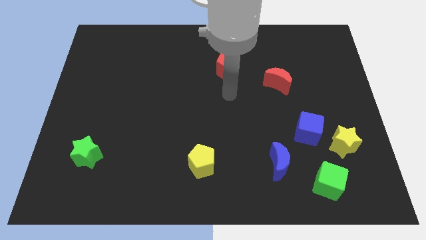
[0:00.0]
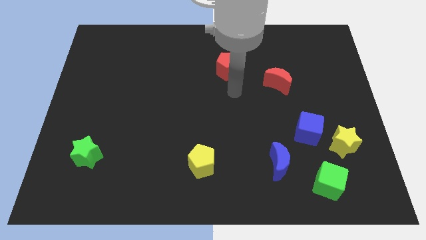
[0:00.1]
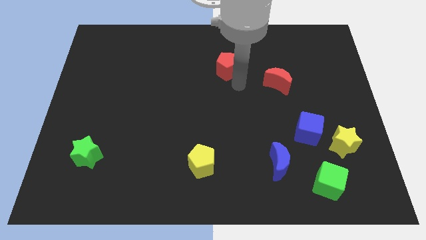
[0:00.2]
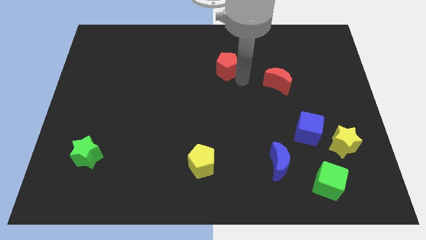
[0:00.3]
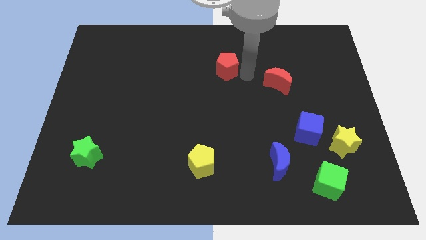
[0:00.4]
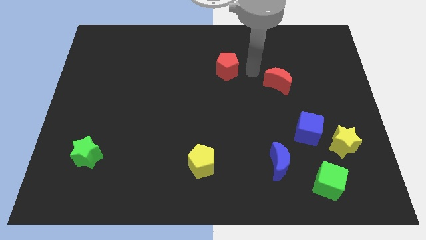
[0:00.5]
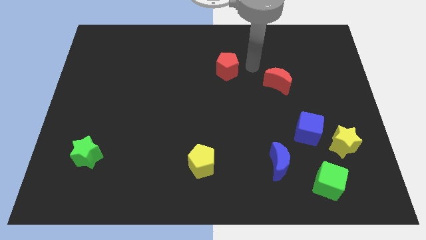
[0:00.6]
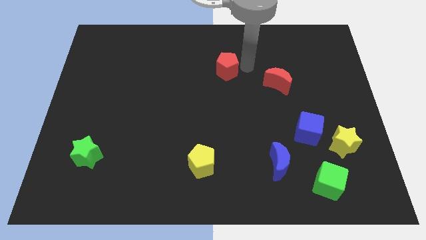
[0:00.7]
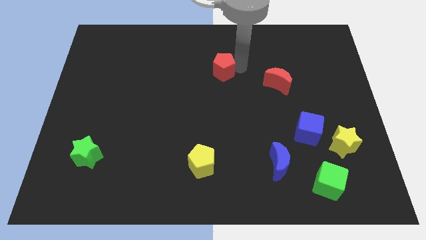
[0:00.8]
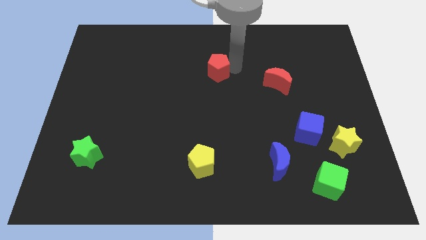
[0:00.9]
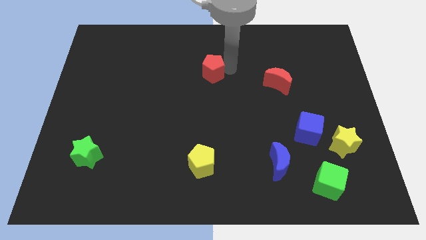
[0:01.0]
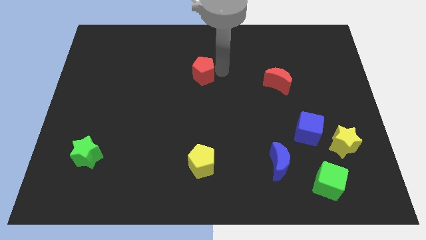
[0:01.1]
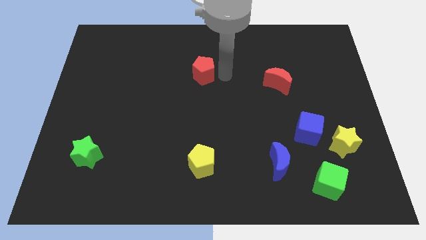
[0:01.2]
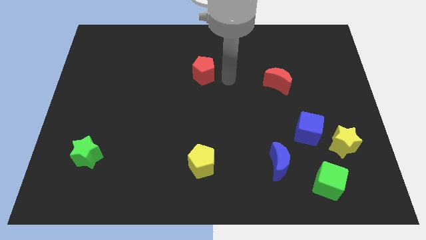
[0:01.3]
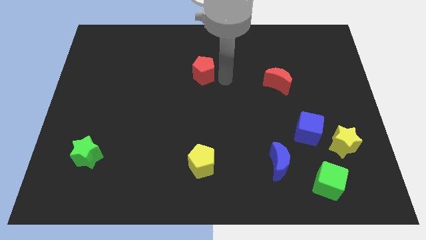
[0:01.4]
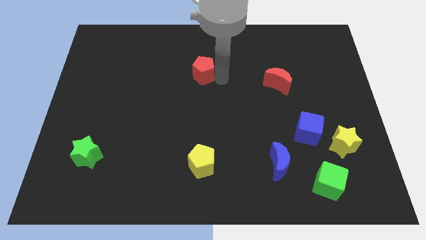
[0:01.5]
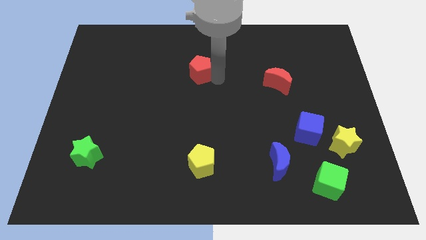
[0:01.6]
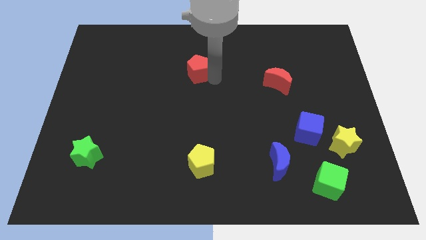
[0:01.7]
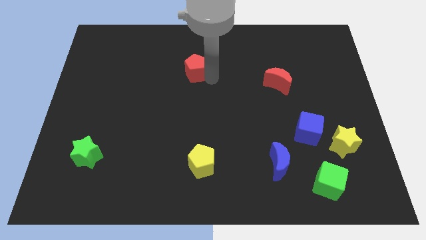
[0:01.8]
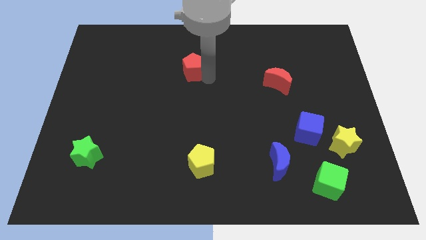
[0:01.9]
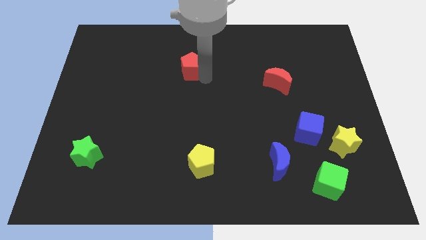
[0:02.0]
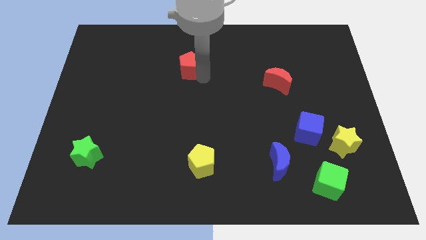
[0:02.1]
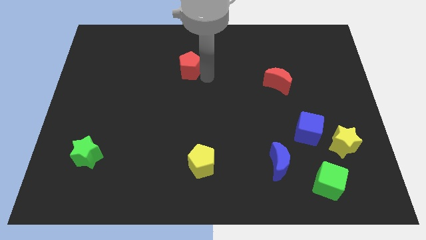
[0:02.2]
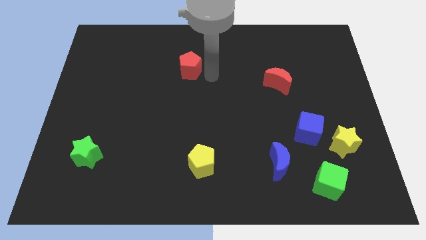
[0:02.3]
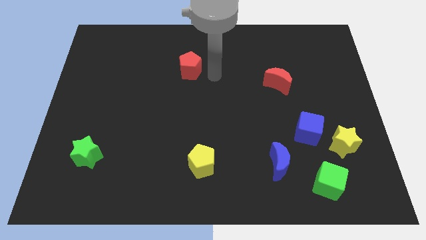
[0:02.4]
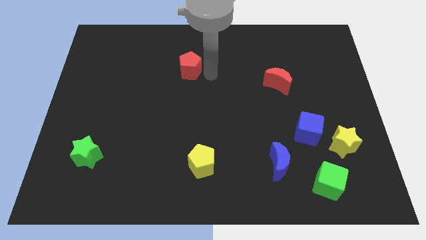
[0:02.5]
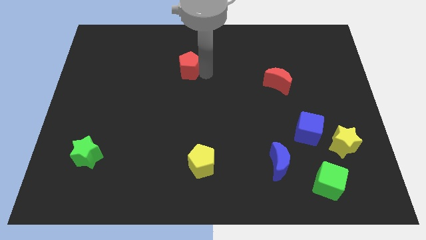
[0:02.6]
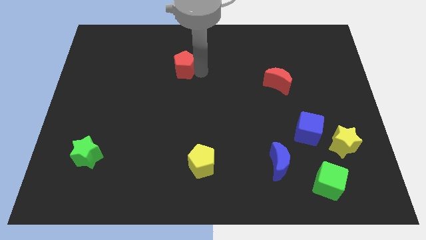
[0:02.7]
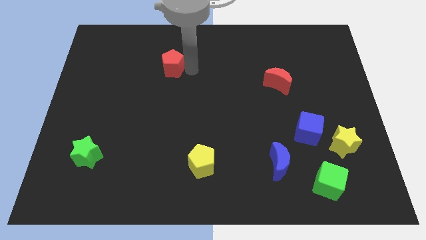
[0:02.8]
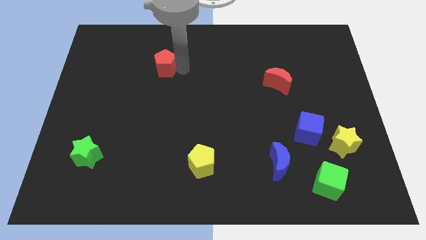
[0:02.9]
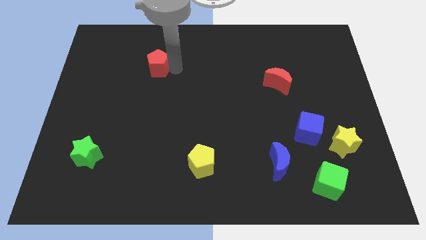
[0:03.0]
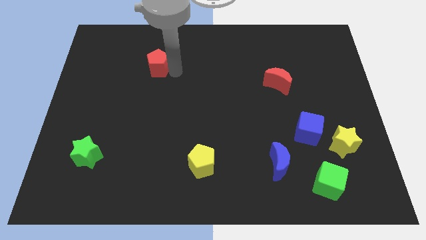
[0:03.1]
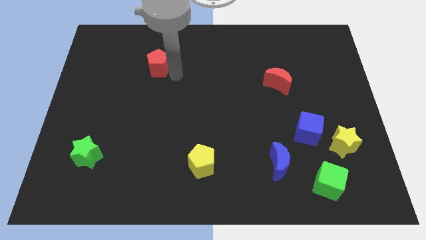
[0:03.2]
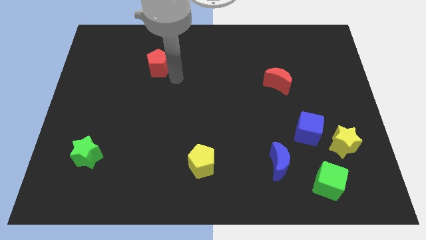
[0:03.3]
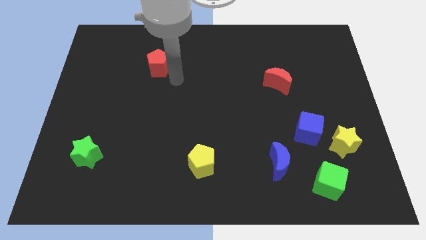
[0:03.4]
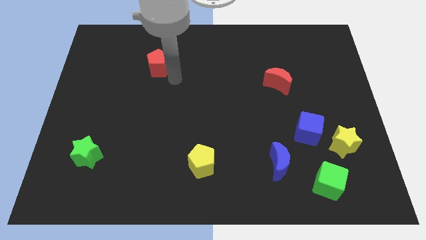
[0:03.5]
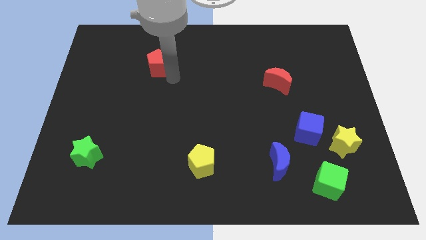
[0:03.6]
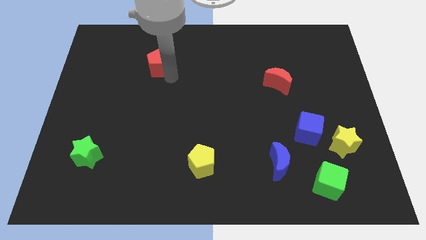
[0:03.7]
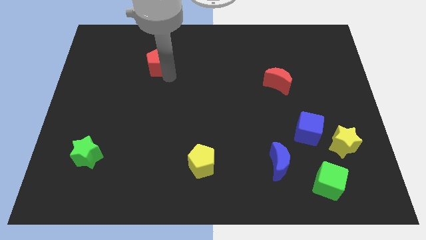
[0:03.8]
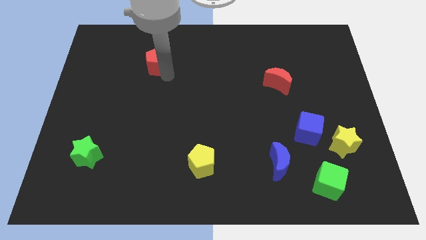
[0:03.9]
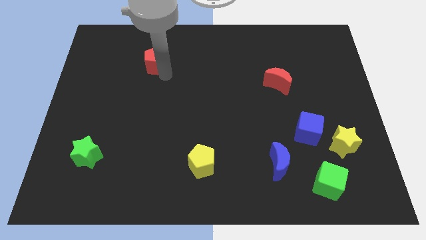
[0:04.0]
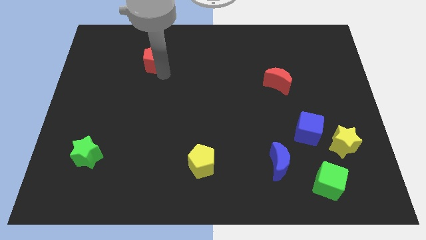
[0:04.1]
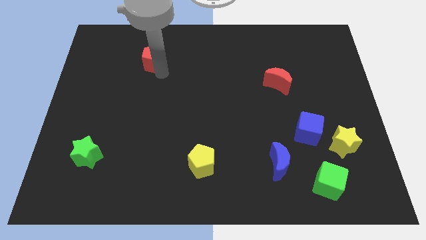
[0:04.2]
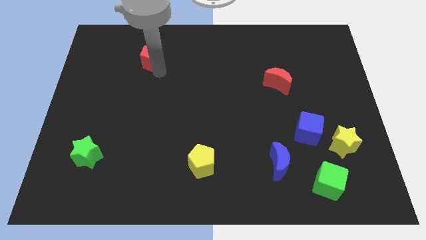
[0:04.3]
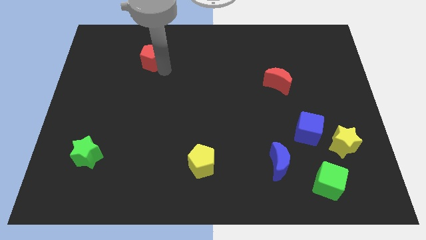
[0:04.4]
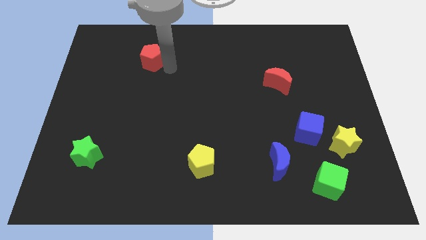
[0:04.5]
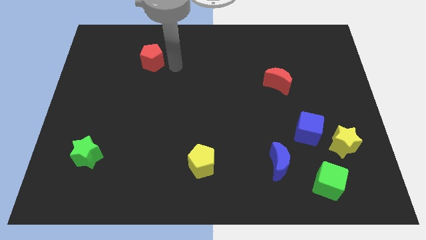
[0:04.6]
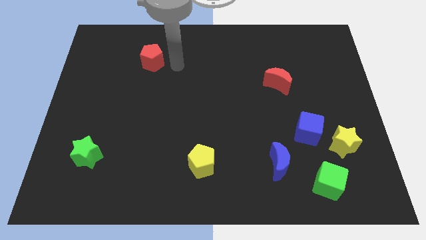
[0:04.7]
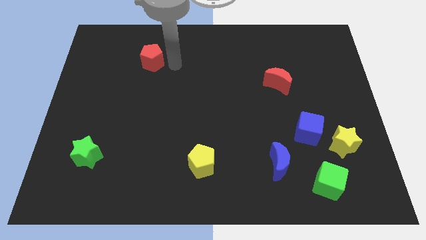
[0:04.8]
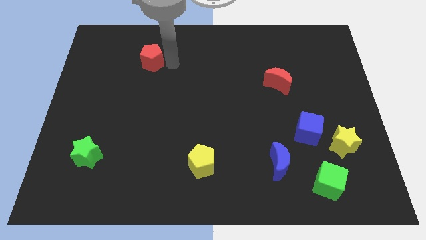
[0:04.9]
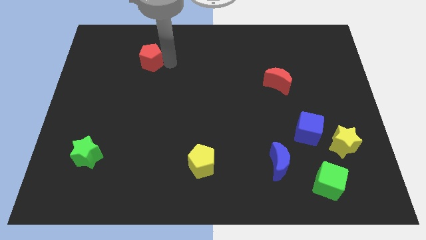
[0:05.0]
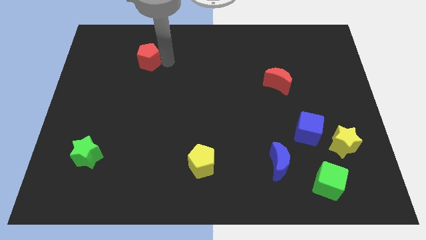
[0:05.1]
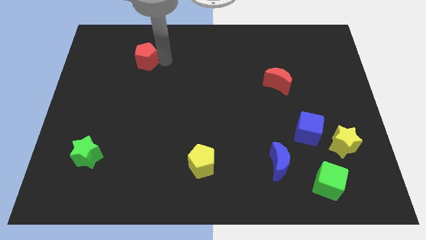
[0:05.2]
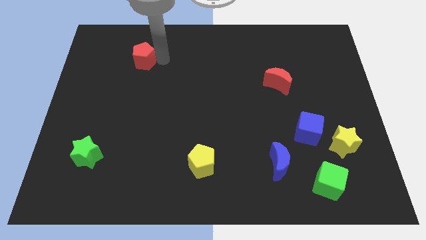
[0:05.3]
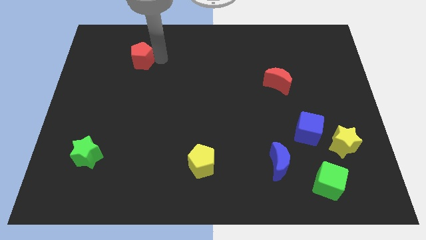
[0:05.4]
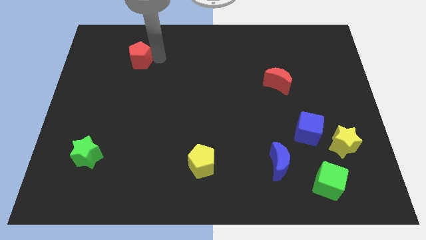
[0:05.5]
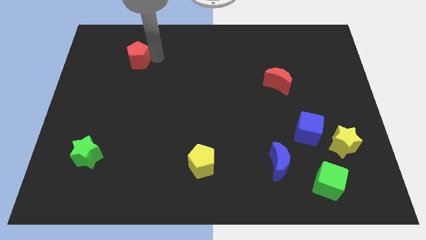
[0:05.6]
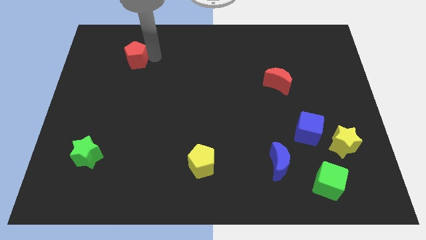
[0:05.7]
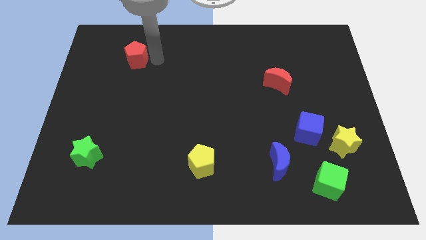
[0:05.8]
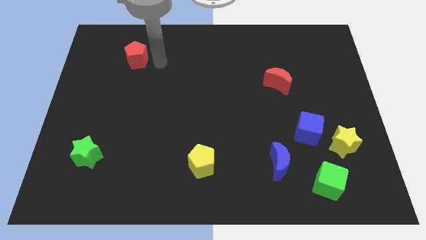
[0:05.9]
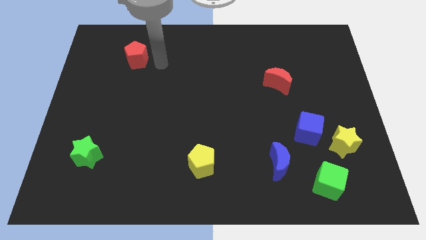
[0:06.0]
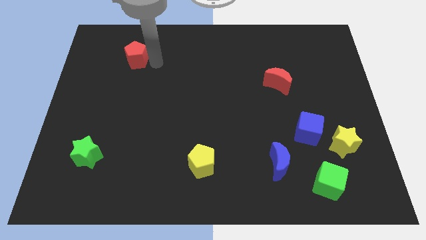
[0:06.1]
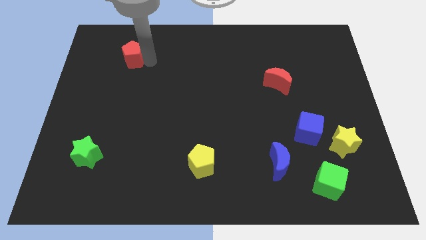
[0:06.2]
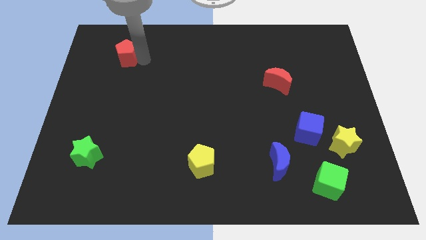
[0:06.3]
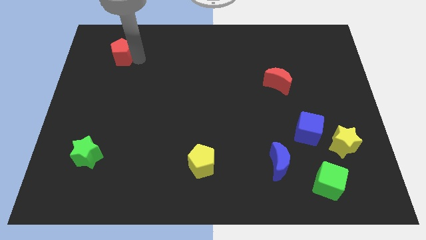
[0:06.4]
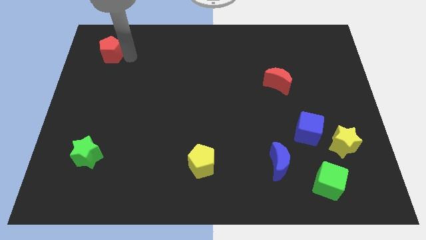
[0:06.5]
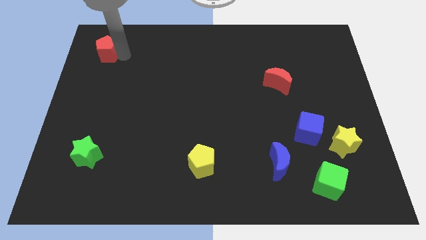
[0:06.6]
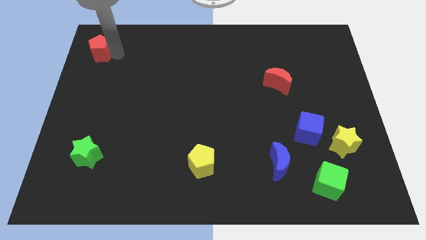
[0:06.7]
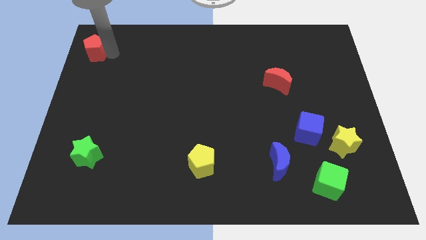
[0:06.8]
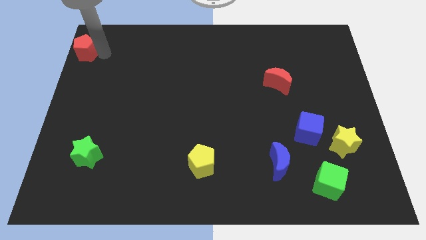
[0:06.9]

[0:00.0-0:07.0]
move the red pentagon to the top left

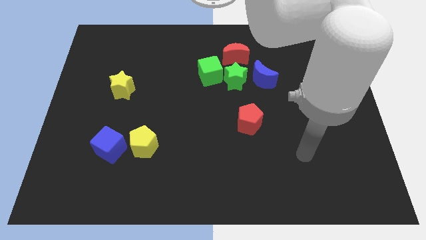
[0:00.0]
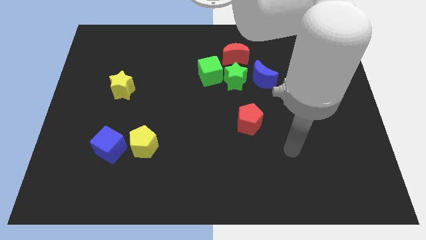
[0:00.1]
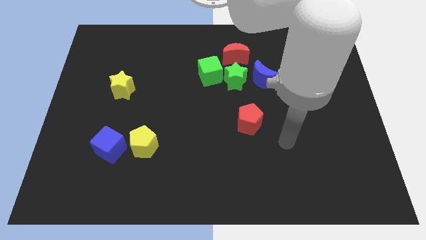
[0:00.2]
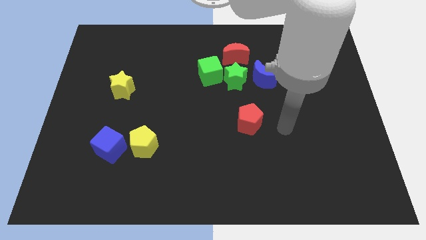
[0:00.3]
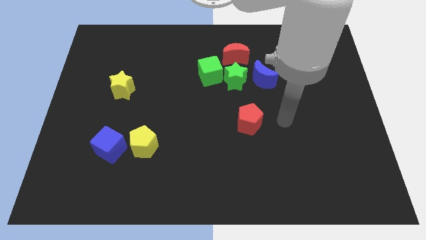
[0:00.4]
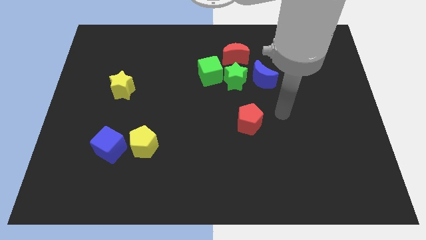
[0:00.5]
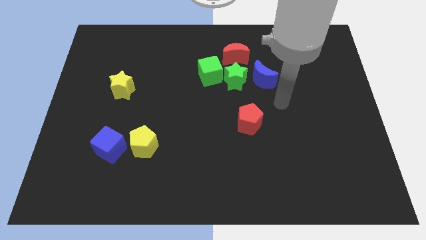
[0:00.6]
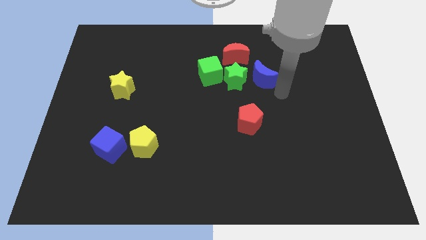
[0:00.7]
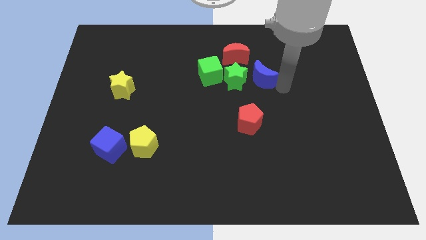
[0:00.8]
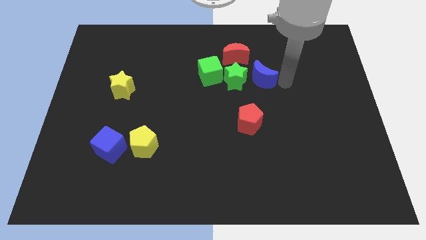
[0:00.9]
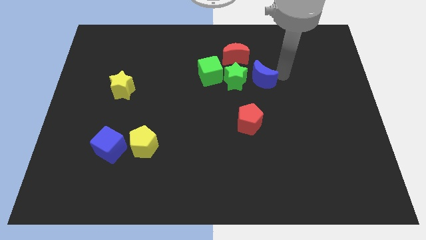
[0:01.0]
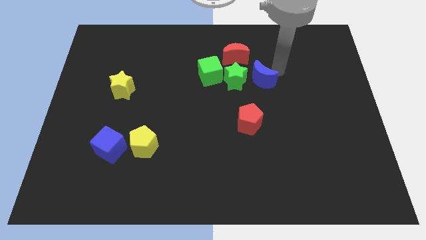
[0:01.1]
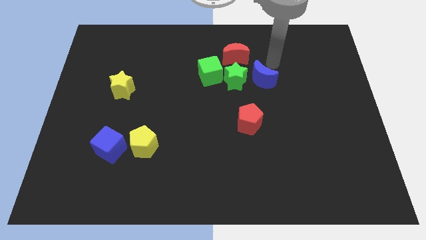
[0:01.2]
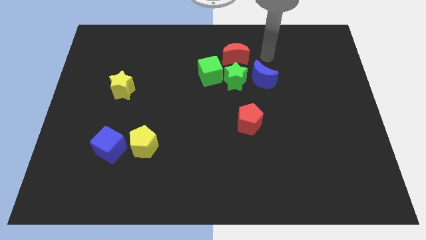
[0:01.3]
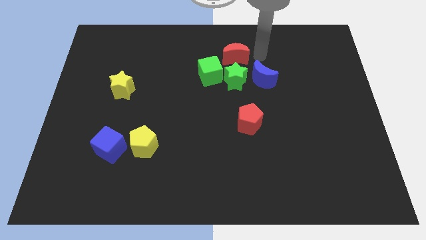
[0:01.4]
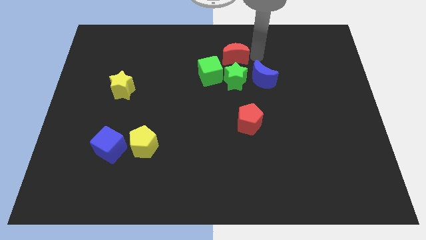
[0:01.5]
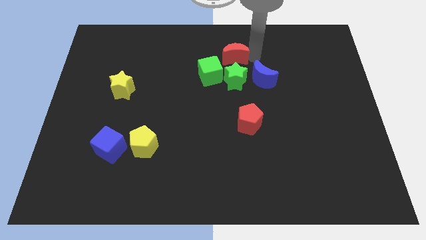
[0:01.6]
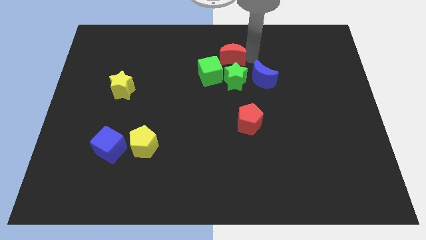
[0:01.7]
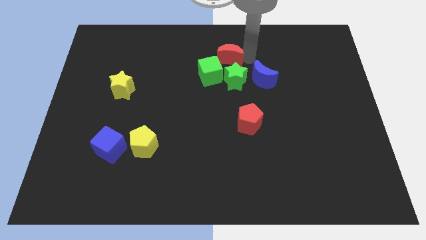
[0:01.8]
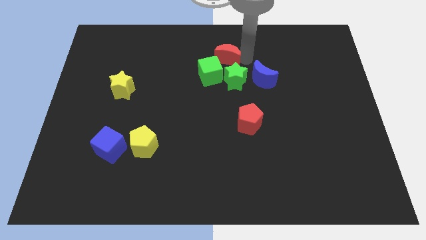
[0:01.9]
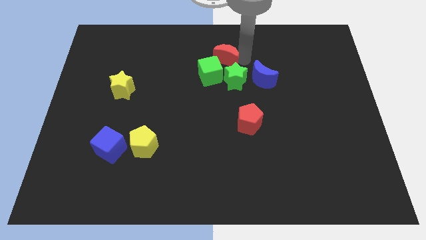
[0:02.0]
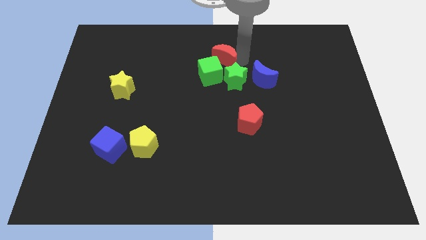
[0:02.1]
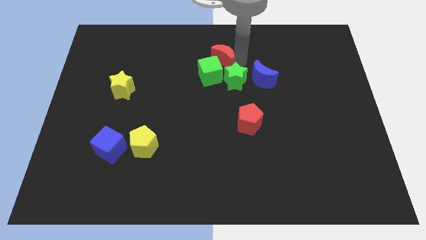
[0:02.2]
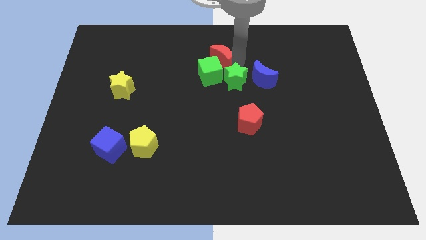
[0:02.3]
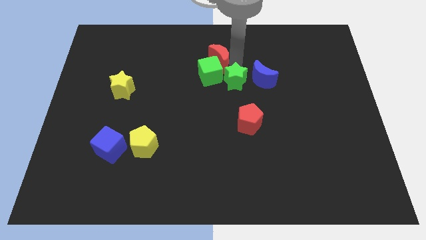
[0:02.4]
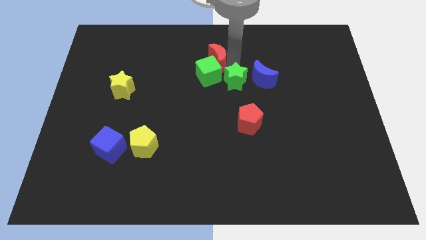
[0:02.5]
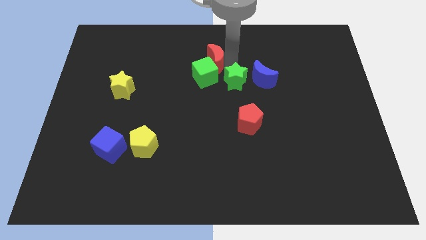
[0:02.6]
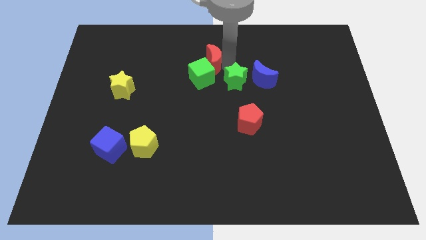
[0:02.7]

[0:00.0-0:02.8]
put the red moon to the center
